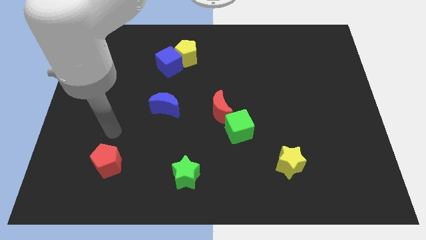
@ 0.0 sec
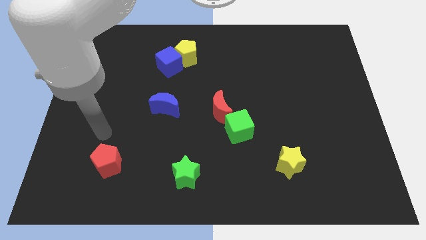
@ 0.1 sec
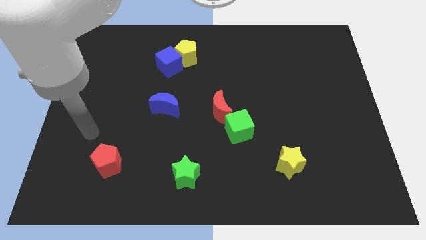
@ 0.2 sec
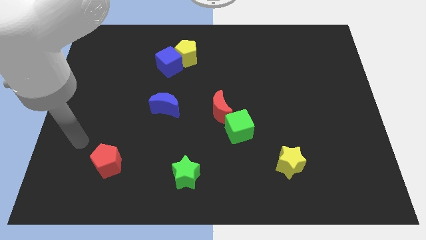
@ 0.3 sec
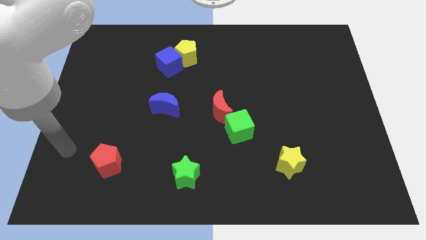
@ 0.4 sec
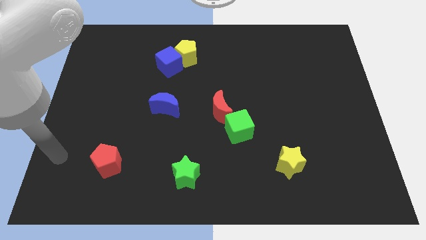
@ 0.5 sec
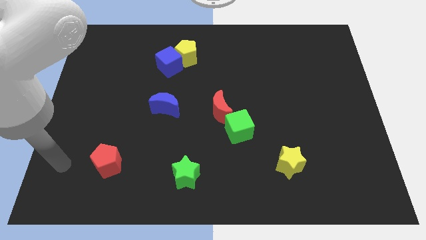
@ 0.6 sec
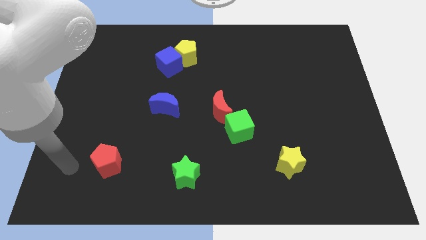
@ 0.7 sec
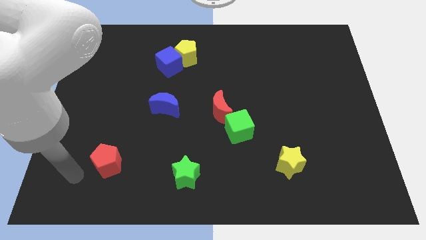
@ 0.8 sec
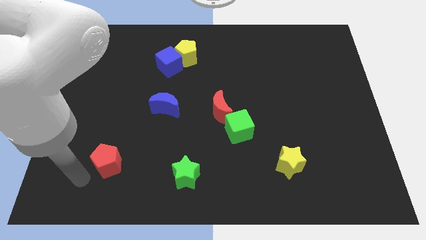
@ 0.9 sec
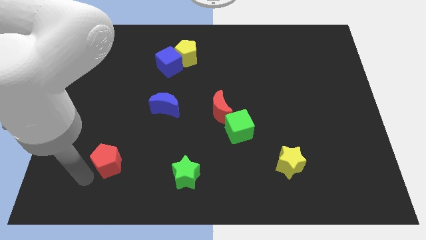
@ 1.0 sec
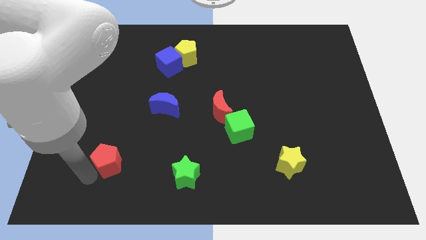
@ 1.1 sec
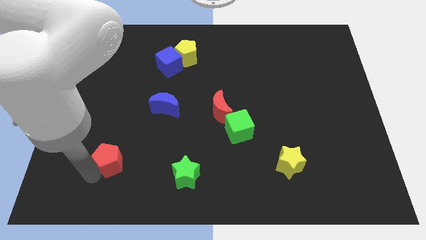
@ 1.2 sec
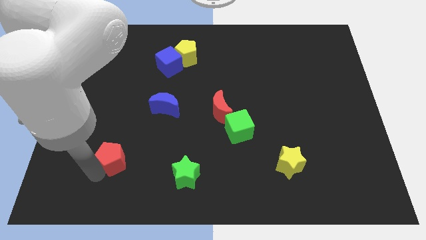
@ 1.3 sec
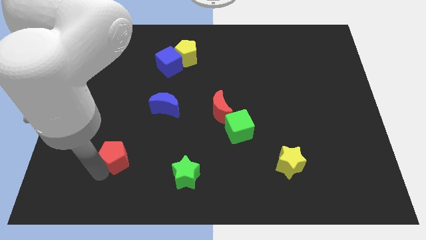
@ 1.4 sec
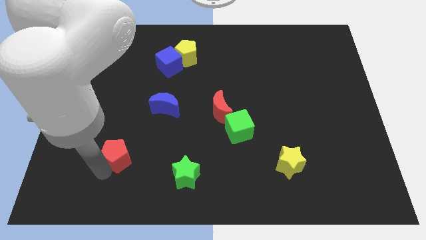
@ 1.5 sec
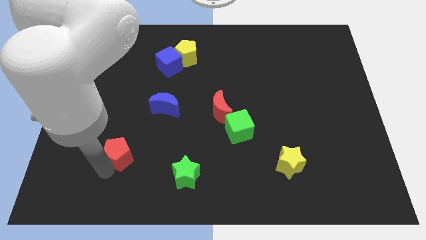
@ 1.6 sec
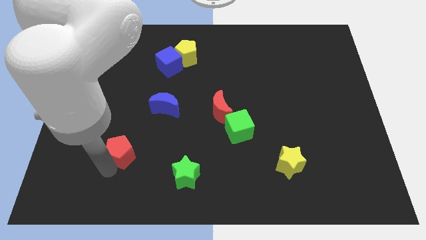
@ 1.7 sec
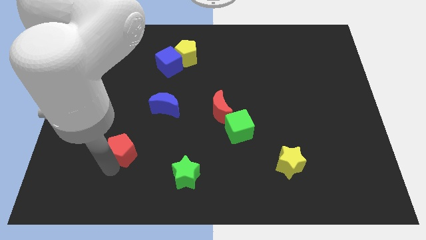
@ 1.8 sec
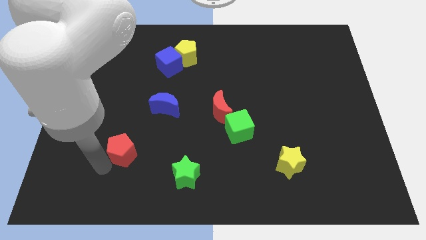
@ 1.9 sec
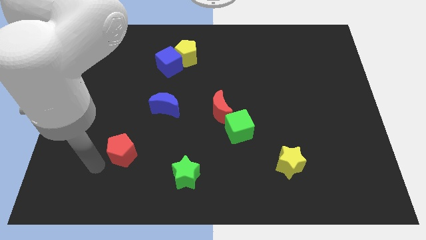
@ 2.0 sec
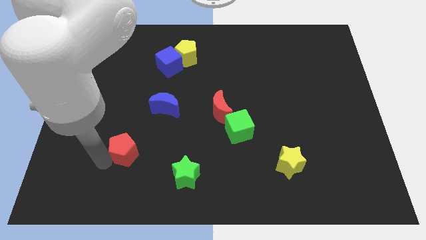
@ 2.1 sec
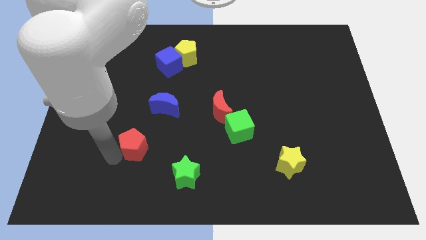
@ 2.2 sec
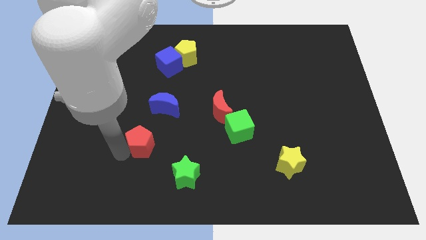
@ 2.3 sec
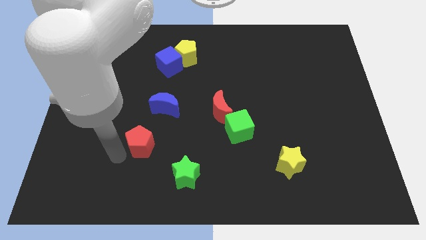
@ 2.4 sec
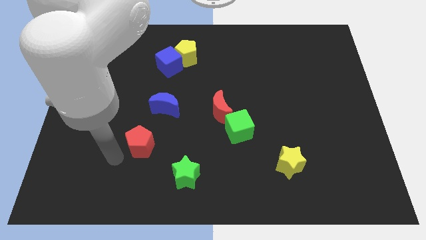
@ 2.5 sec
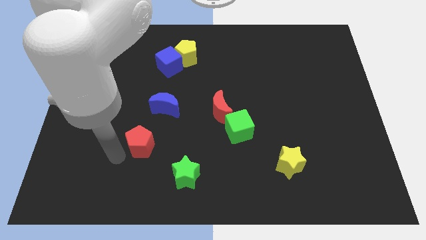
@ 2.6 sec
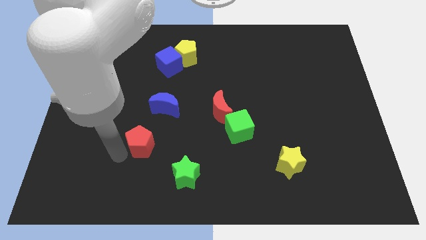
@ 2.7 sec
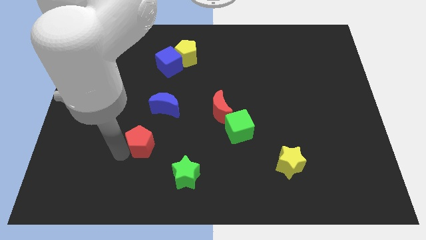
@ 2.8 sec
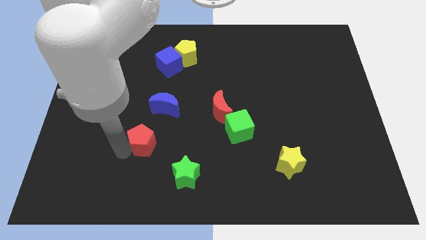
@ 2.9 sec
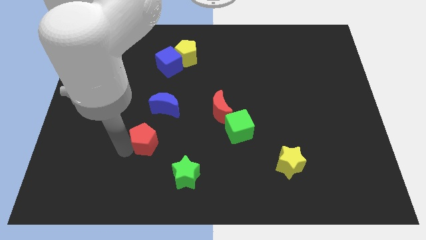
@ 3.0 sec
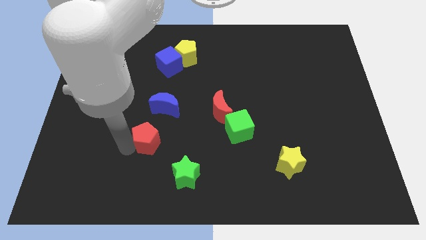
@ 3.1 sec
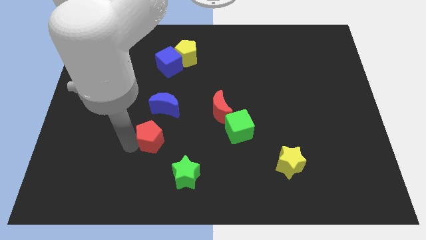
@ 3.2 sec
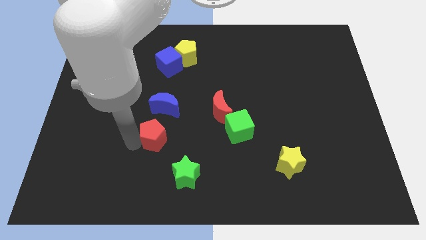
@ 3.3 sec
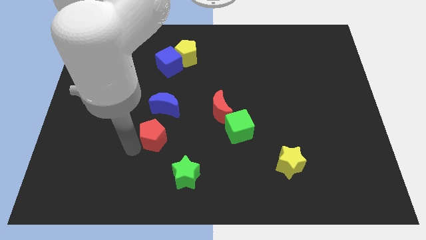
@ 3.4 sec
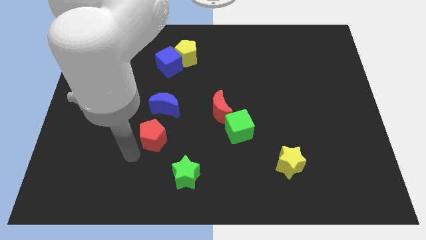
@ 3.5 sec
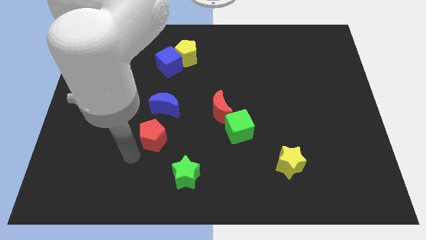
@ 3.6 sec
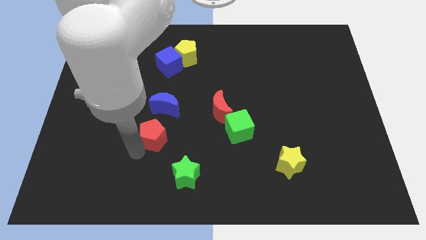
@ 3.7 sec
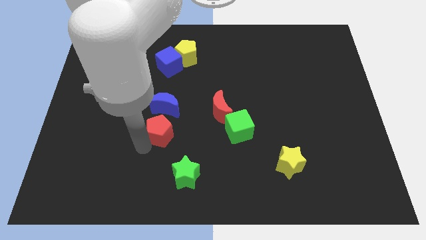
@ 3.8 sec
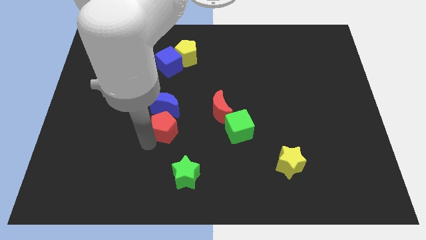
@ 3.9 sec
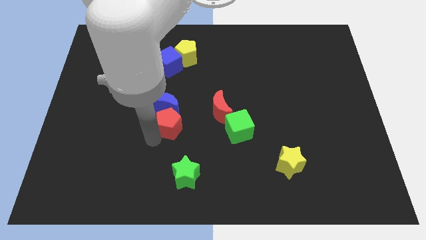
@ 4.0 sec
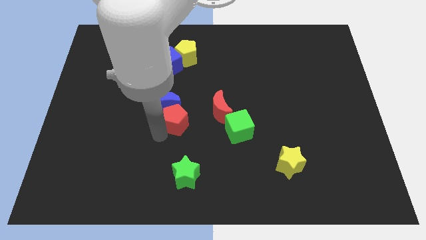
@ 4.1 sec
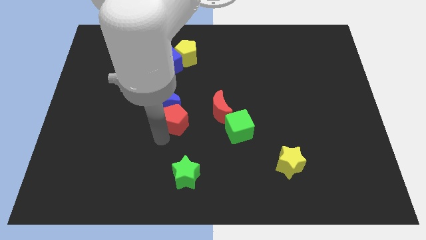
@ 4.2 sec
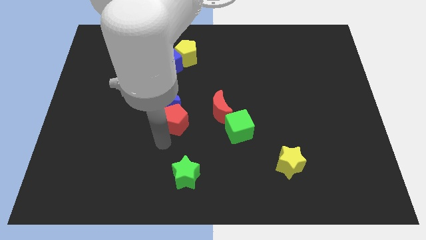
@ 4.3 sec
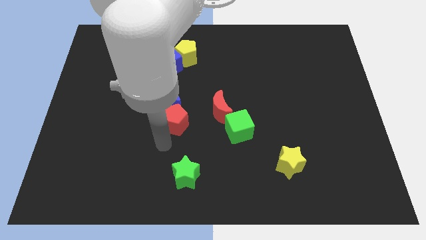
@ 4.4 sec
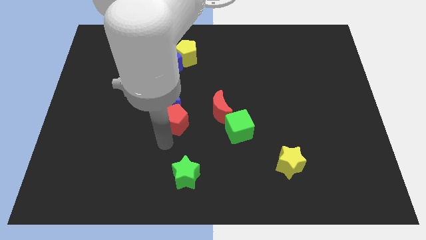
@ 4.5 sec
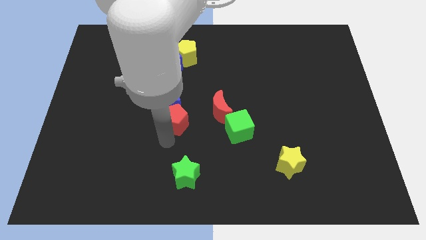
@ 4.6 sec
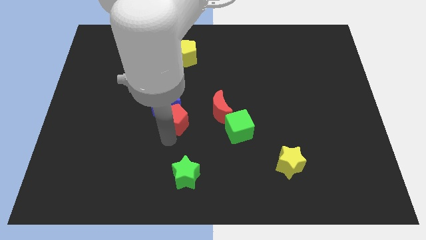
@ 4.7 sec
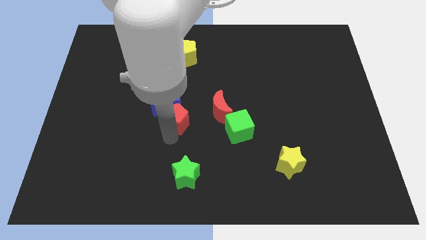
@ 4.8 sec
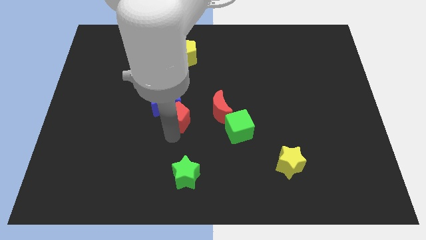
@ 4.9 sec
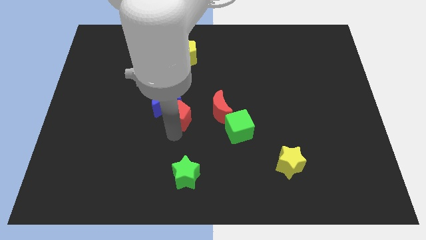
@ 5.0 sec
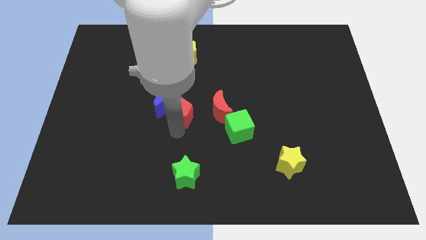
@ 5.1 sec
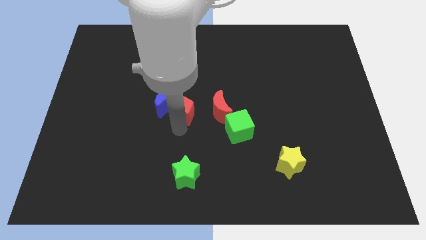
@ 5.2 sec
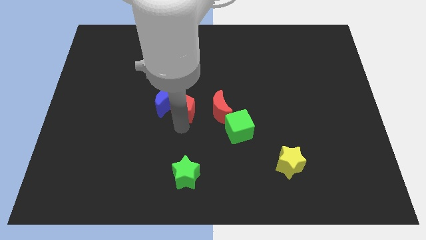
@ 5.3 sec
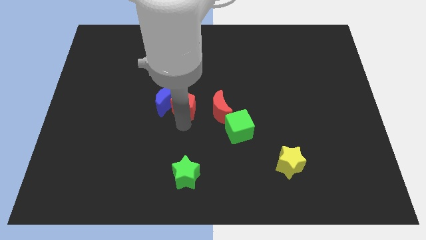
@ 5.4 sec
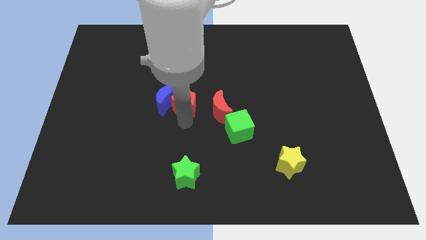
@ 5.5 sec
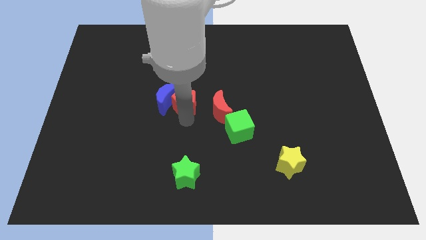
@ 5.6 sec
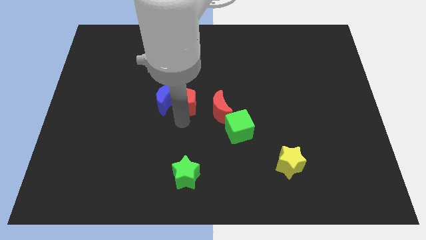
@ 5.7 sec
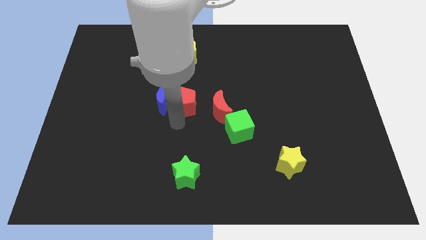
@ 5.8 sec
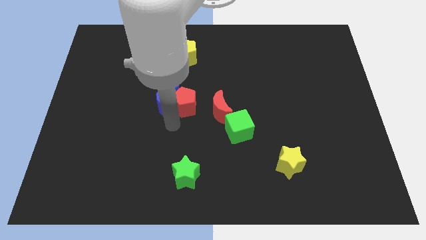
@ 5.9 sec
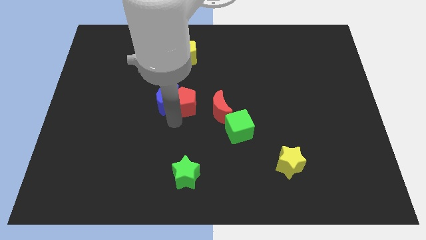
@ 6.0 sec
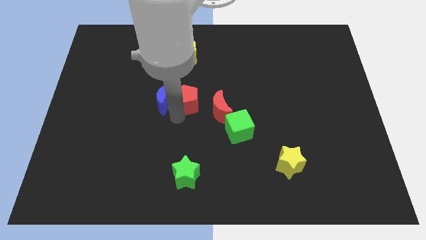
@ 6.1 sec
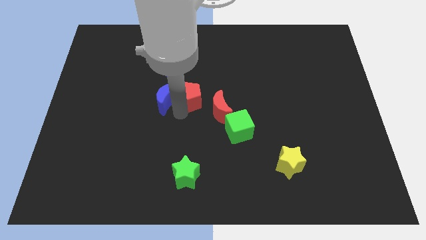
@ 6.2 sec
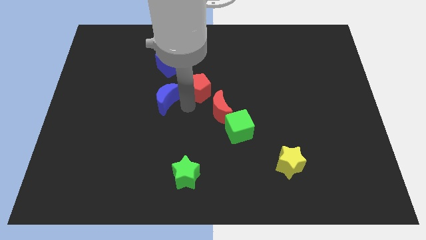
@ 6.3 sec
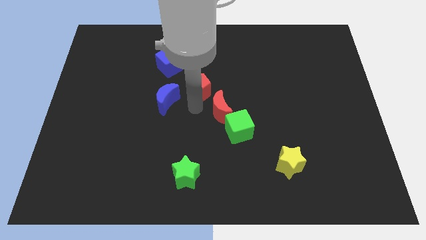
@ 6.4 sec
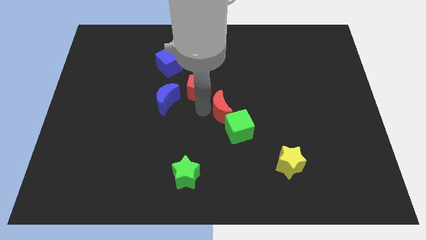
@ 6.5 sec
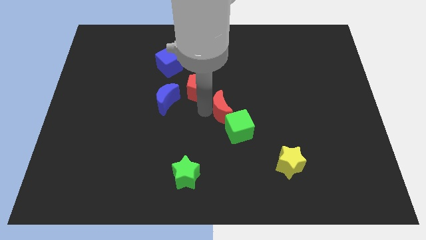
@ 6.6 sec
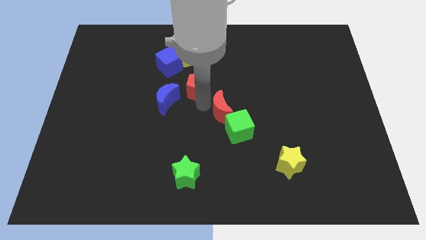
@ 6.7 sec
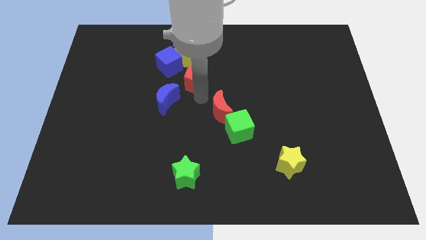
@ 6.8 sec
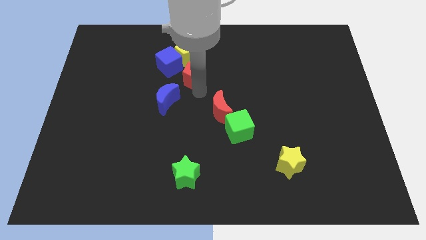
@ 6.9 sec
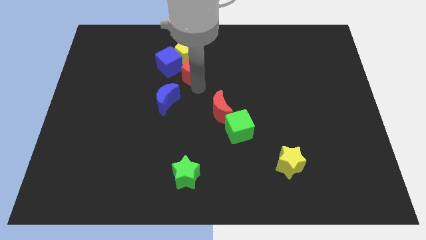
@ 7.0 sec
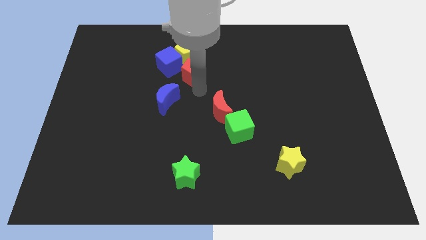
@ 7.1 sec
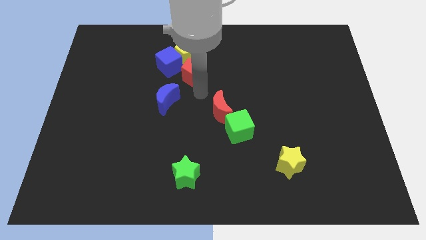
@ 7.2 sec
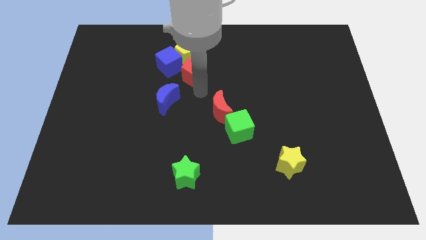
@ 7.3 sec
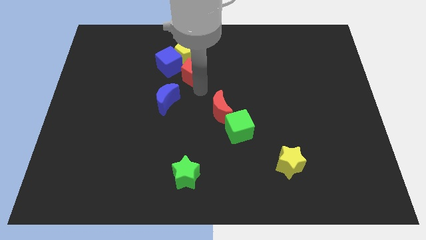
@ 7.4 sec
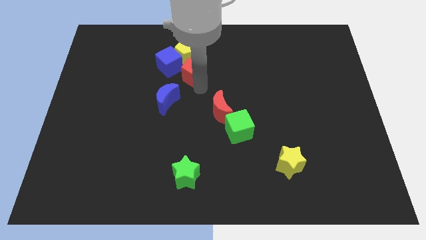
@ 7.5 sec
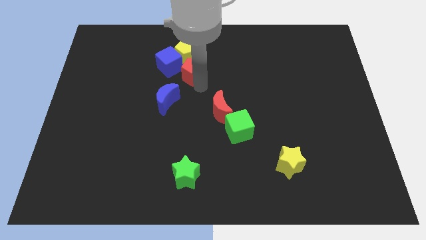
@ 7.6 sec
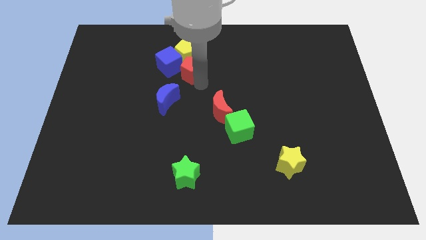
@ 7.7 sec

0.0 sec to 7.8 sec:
slide the red pentagon next to the yellow pentagon
